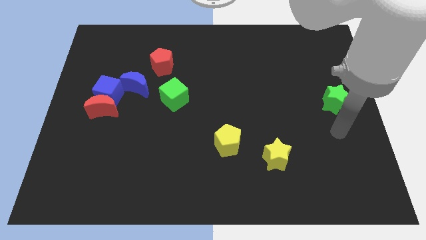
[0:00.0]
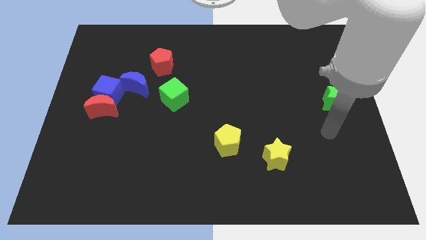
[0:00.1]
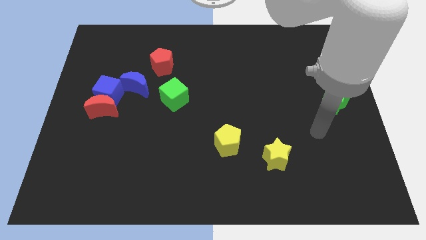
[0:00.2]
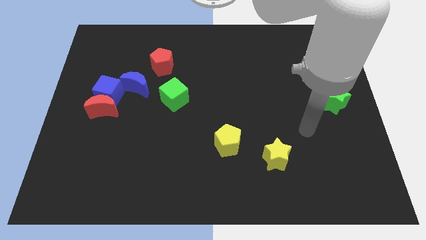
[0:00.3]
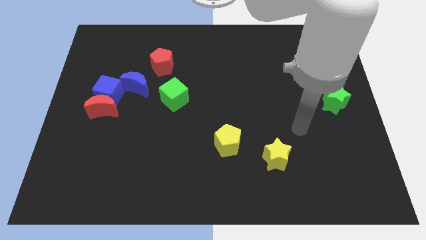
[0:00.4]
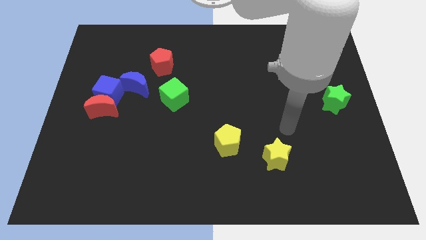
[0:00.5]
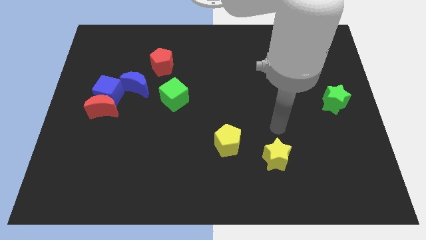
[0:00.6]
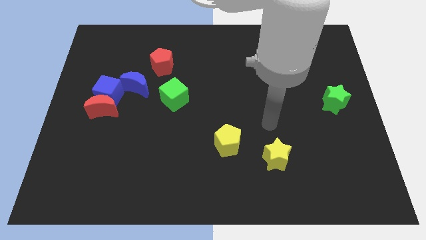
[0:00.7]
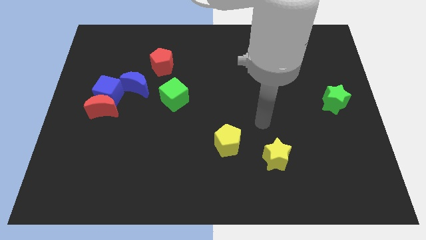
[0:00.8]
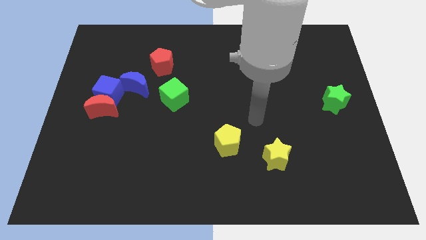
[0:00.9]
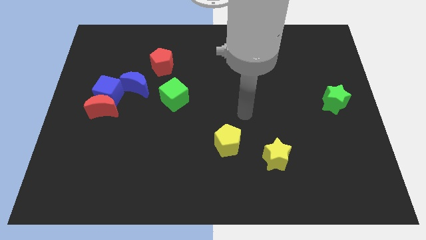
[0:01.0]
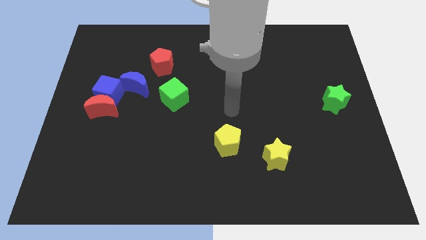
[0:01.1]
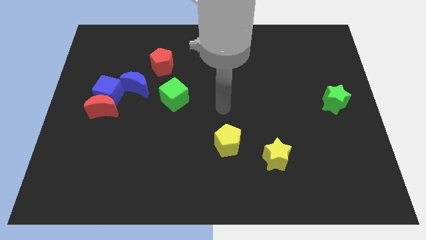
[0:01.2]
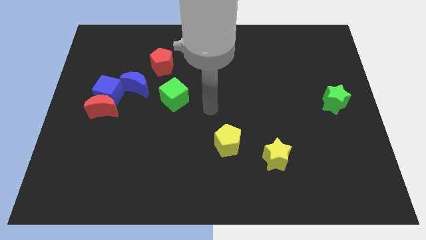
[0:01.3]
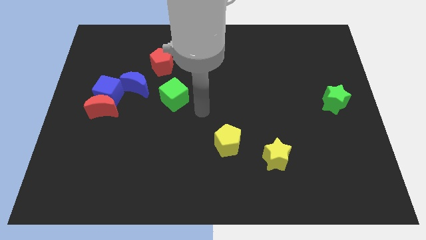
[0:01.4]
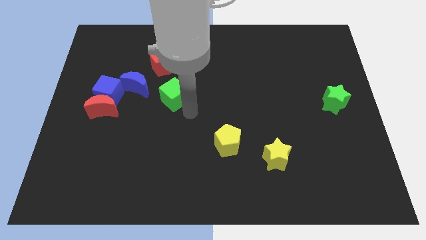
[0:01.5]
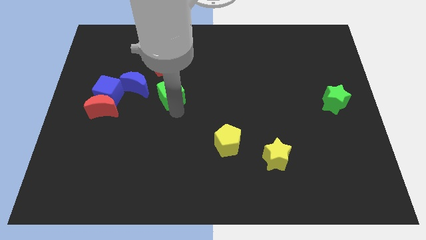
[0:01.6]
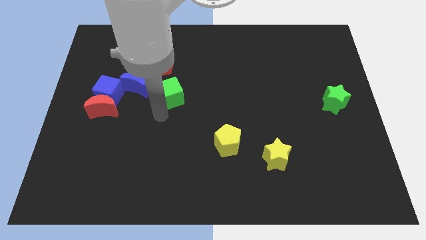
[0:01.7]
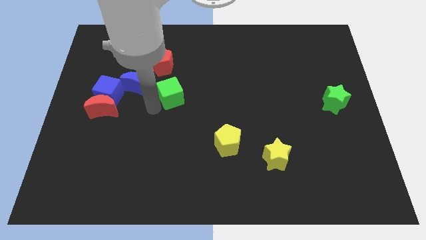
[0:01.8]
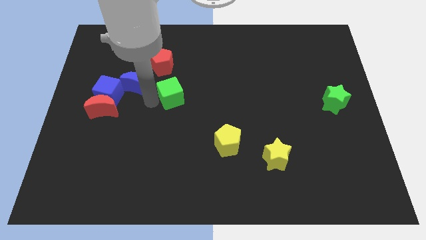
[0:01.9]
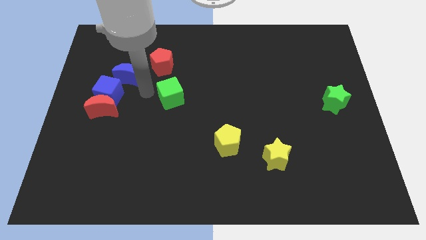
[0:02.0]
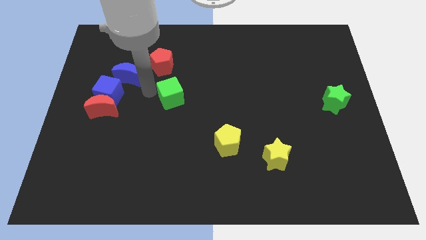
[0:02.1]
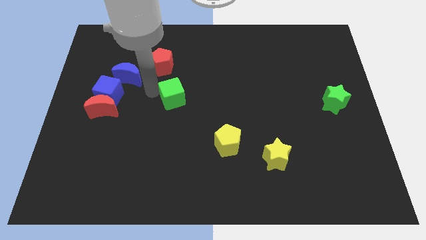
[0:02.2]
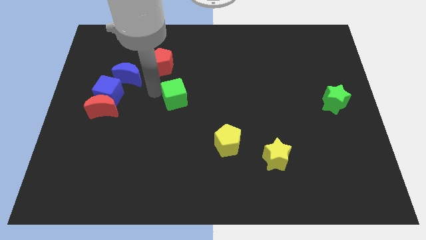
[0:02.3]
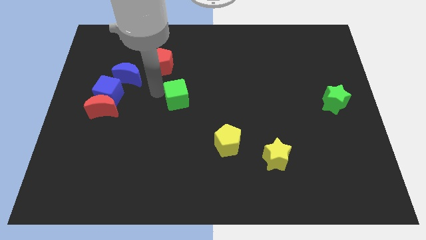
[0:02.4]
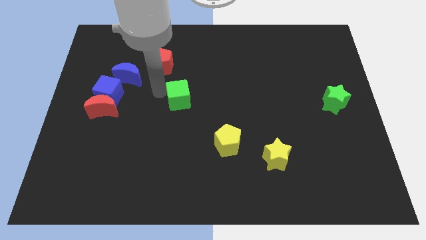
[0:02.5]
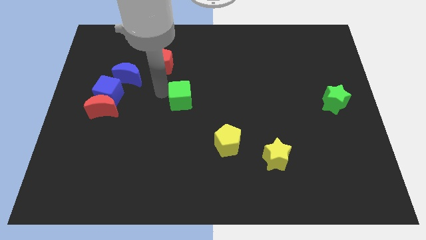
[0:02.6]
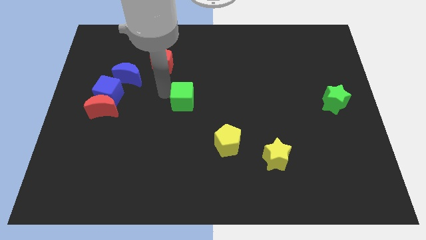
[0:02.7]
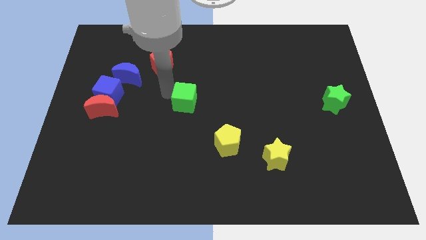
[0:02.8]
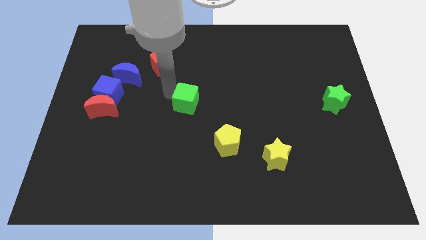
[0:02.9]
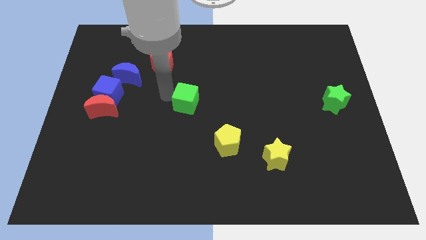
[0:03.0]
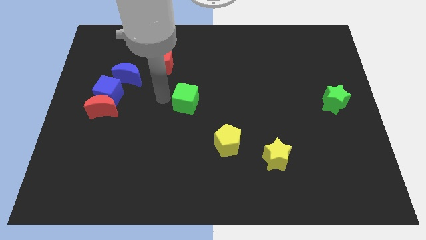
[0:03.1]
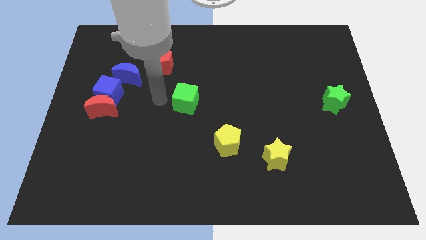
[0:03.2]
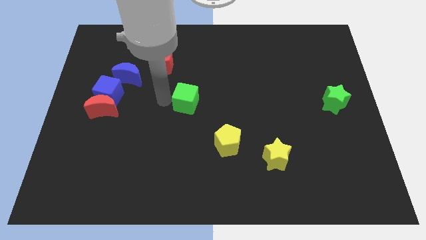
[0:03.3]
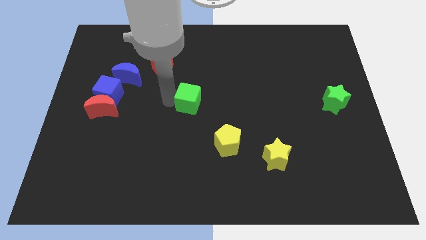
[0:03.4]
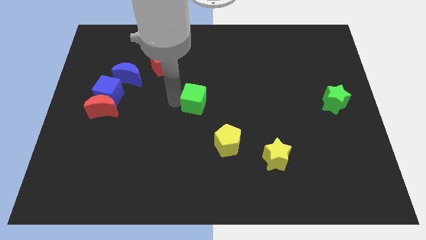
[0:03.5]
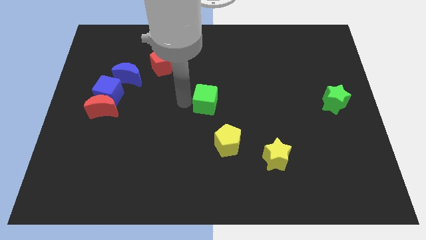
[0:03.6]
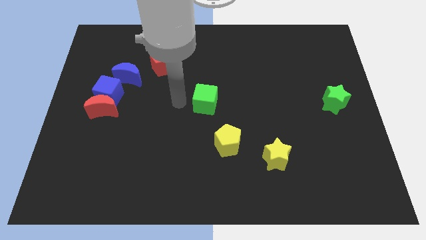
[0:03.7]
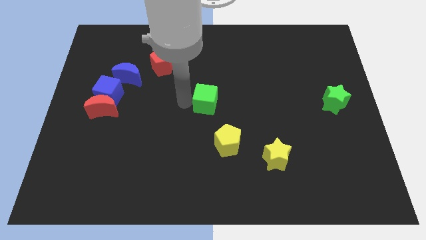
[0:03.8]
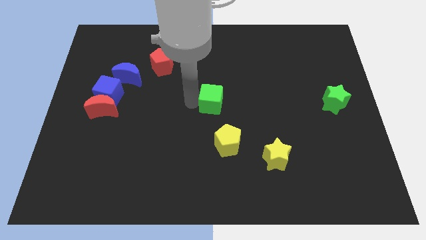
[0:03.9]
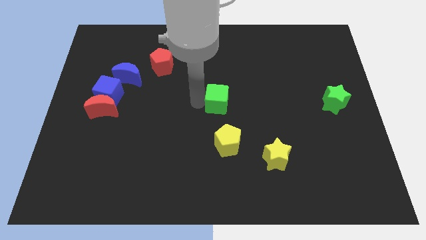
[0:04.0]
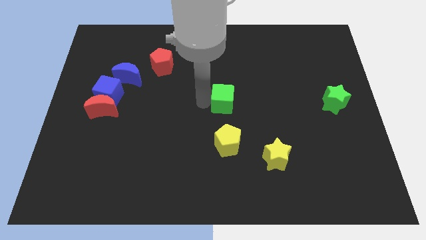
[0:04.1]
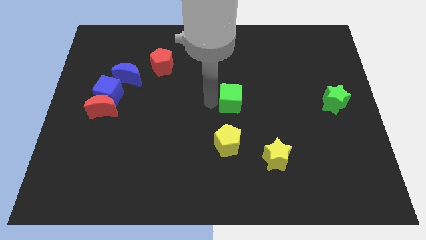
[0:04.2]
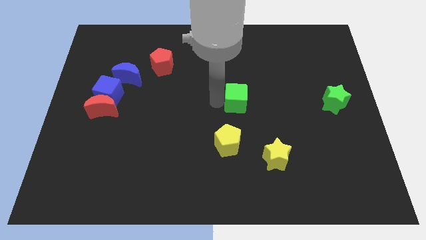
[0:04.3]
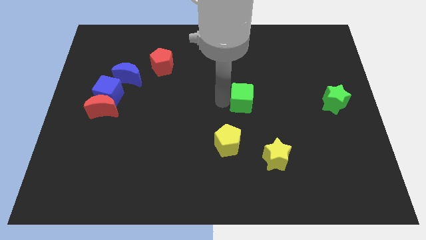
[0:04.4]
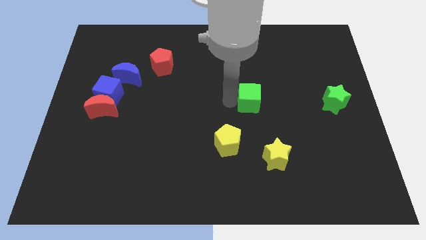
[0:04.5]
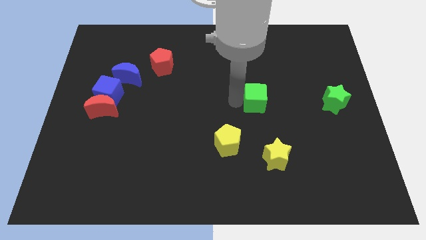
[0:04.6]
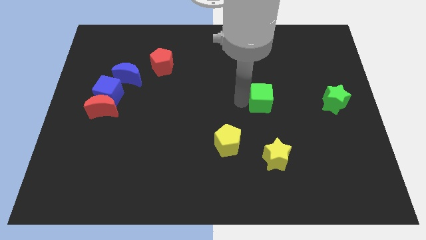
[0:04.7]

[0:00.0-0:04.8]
slide the green cube right

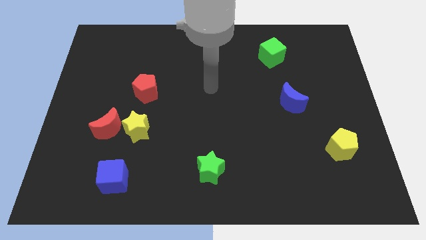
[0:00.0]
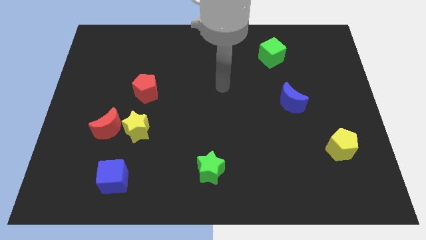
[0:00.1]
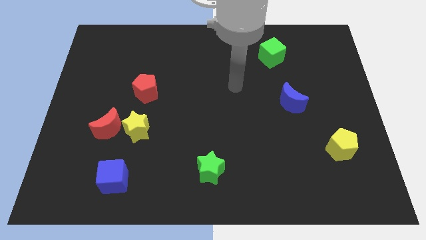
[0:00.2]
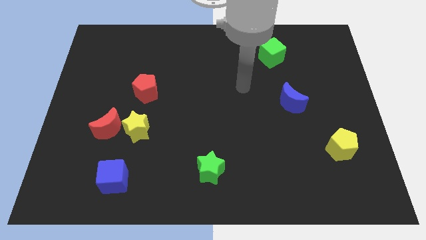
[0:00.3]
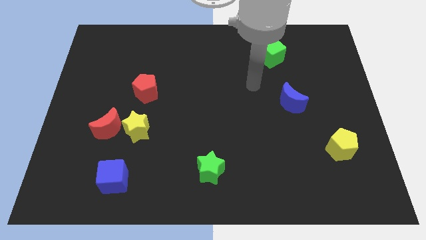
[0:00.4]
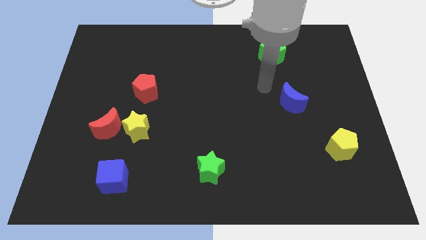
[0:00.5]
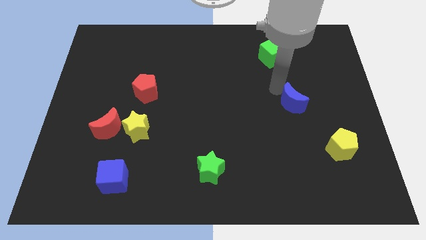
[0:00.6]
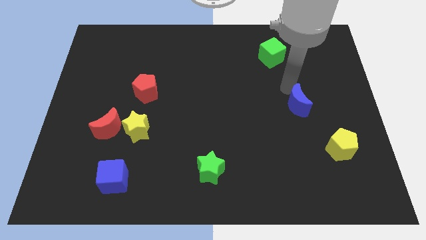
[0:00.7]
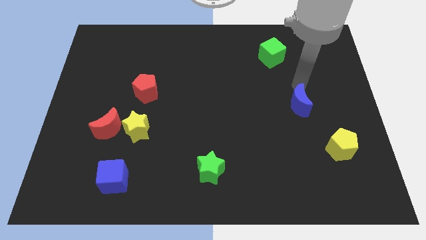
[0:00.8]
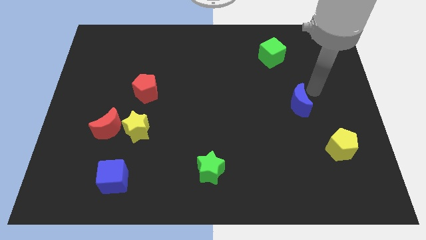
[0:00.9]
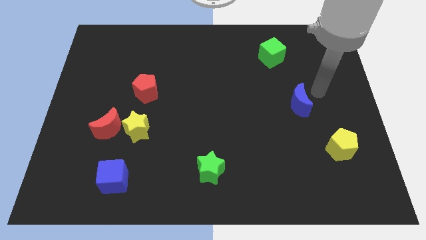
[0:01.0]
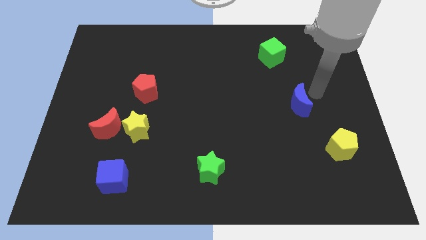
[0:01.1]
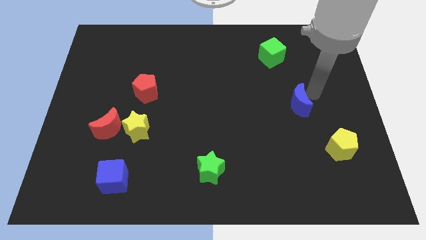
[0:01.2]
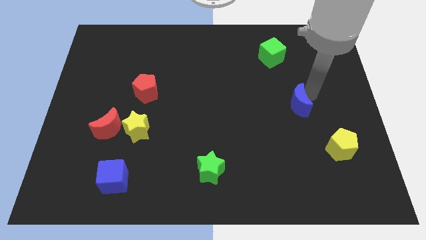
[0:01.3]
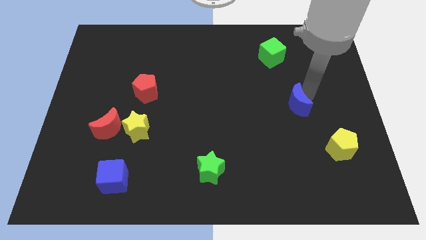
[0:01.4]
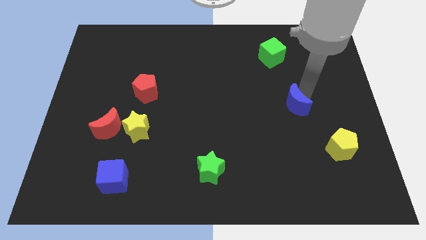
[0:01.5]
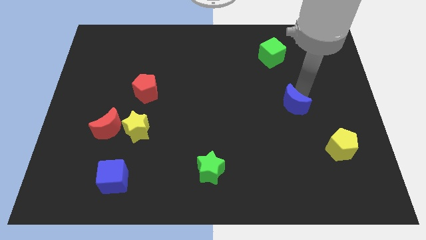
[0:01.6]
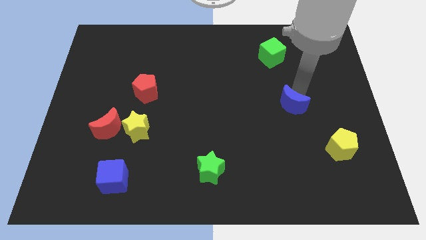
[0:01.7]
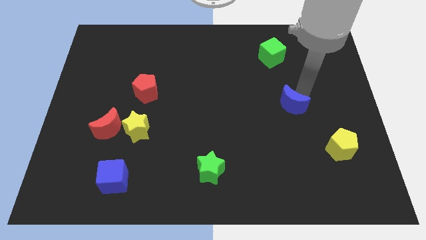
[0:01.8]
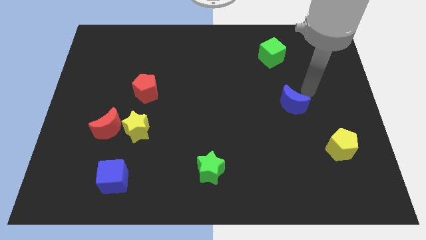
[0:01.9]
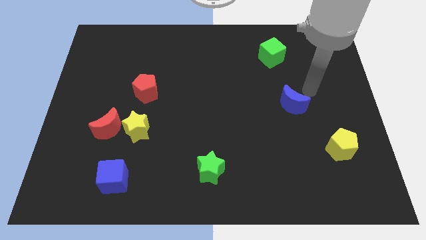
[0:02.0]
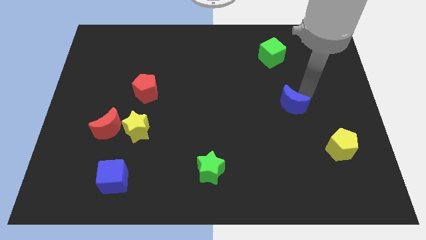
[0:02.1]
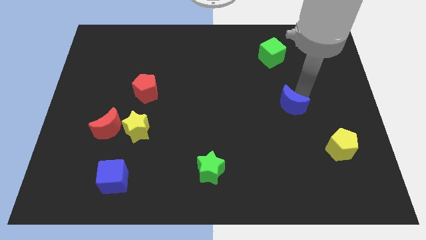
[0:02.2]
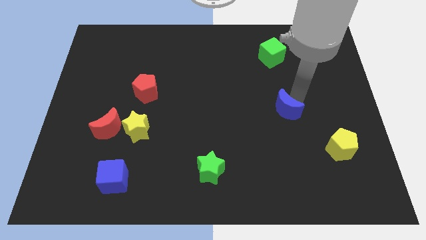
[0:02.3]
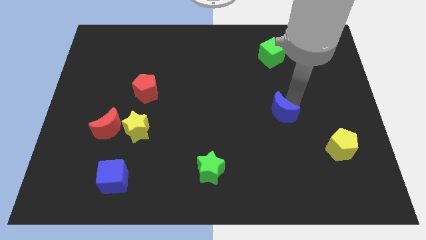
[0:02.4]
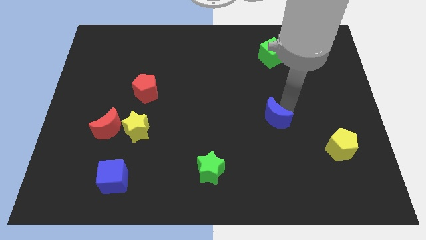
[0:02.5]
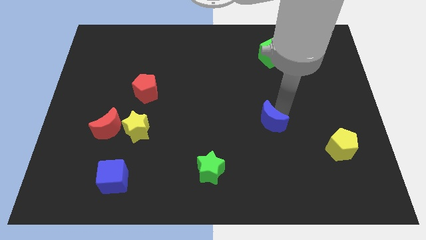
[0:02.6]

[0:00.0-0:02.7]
move the blue moon a bit diagonally down and left

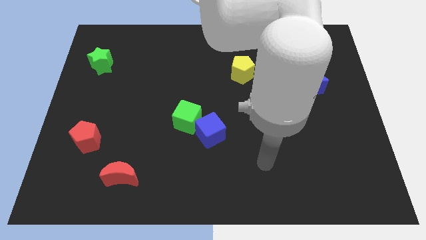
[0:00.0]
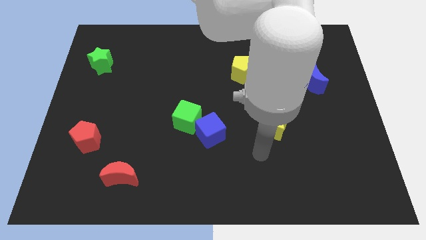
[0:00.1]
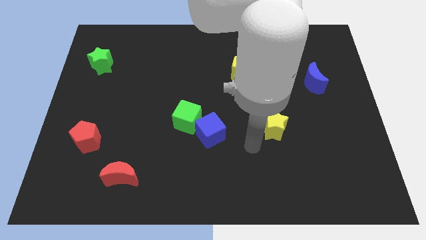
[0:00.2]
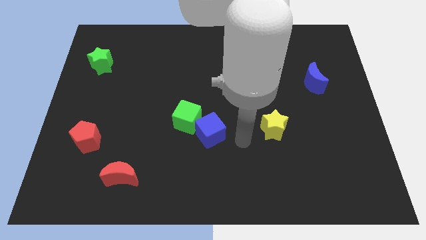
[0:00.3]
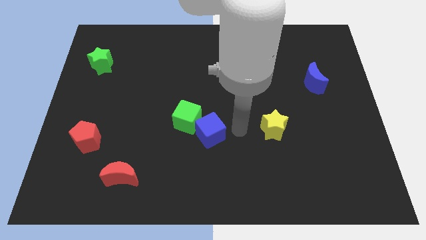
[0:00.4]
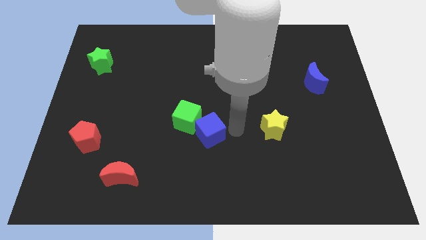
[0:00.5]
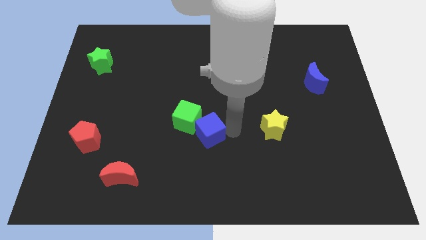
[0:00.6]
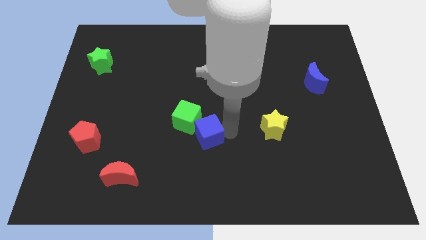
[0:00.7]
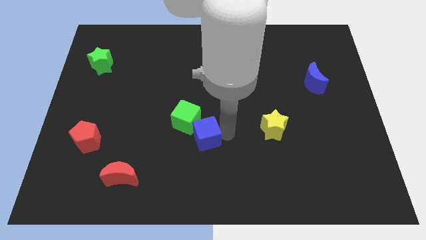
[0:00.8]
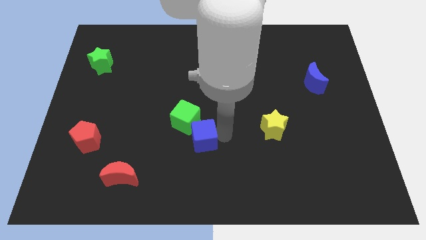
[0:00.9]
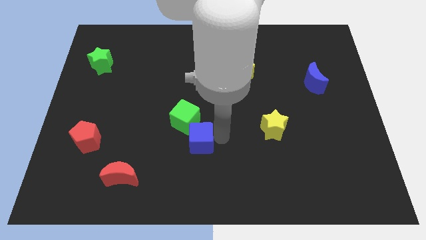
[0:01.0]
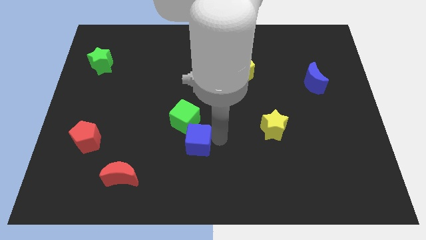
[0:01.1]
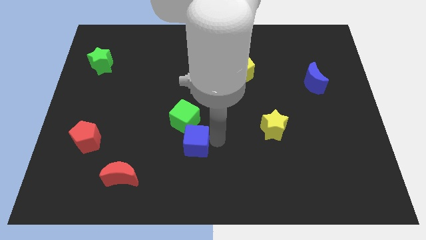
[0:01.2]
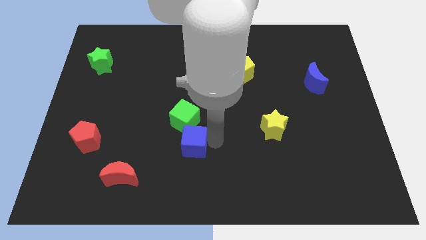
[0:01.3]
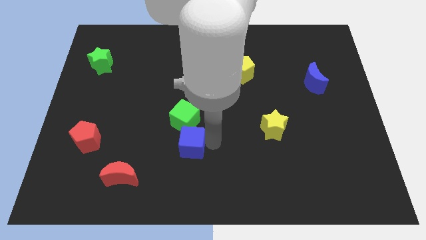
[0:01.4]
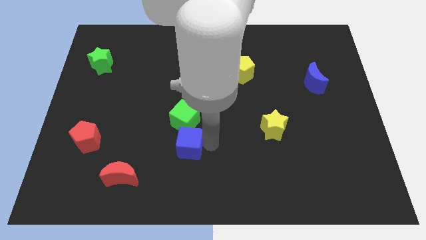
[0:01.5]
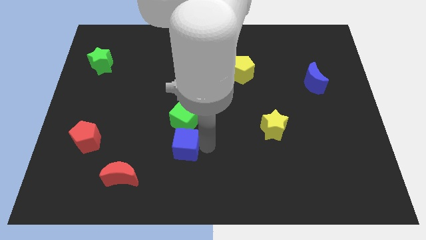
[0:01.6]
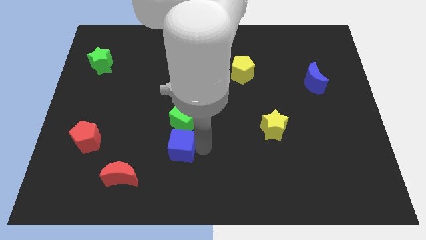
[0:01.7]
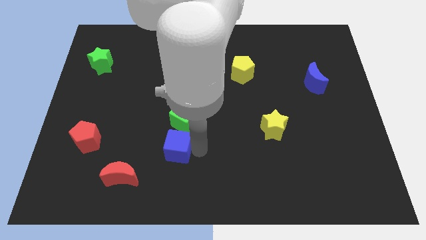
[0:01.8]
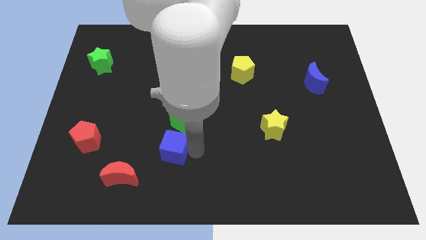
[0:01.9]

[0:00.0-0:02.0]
move the blue cube left somewhat
